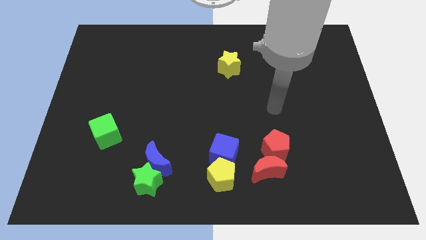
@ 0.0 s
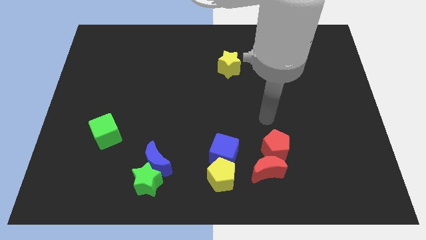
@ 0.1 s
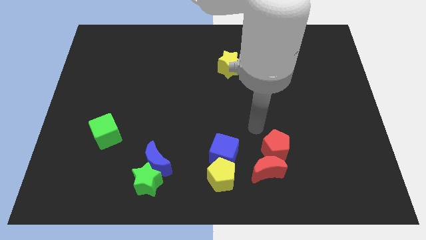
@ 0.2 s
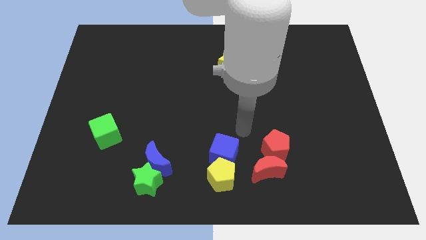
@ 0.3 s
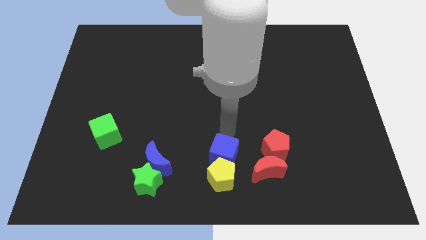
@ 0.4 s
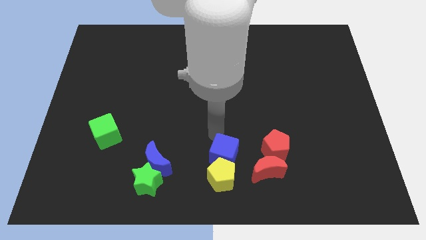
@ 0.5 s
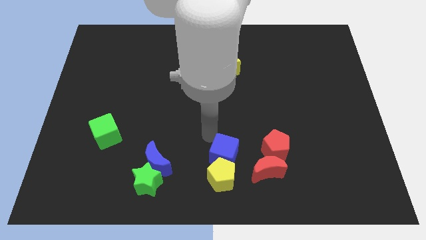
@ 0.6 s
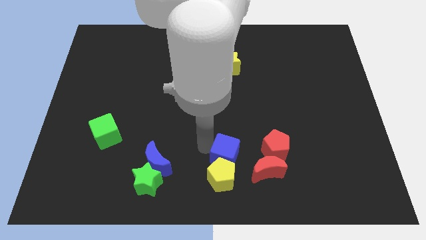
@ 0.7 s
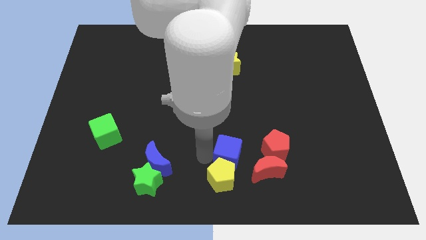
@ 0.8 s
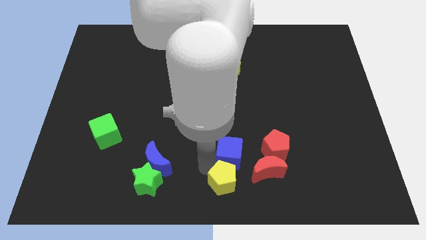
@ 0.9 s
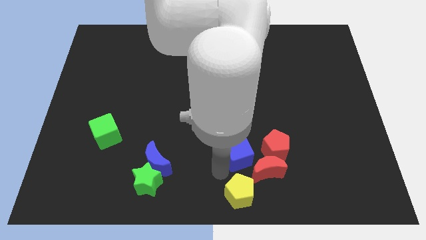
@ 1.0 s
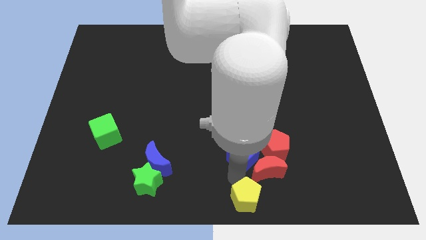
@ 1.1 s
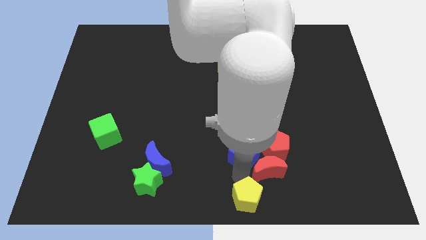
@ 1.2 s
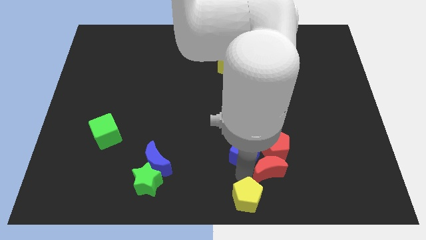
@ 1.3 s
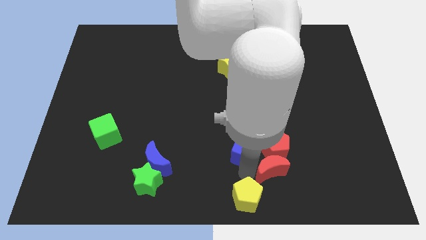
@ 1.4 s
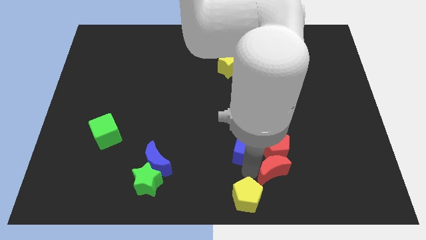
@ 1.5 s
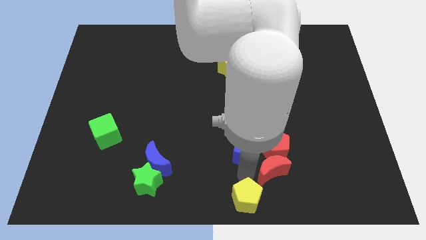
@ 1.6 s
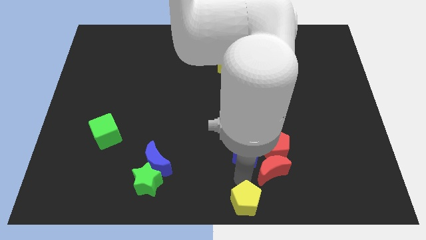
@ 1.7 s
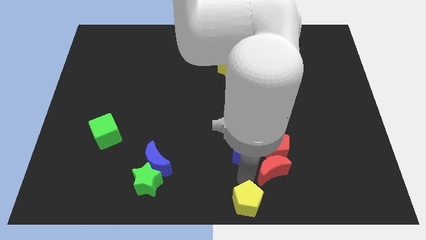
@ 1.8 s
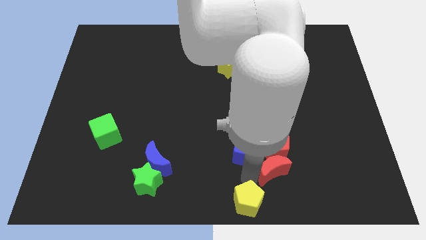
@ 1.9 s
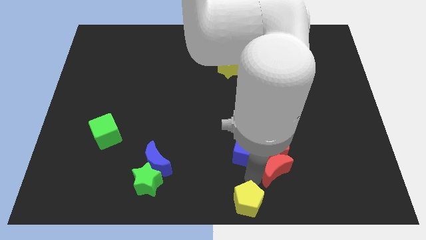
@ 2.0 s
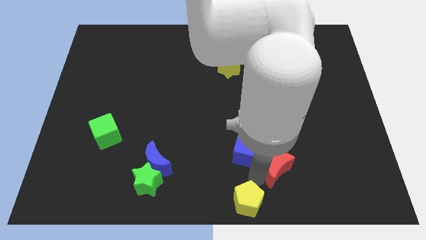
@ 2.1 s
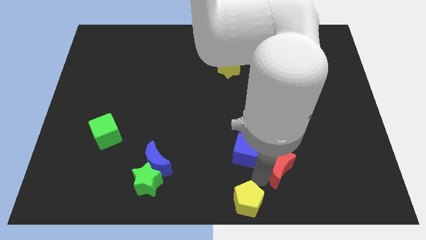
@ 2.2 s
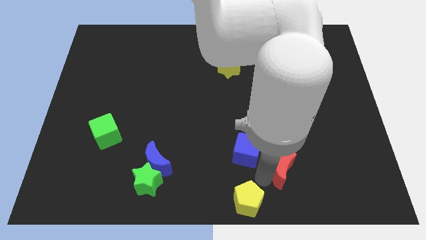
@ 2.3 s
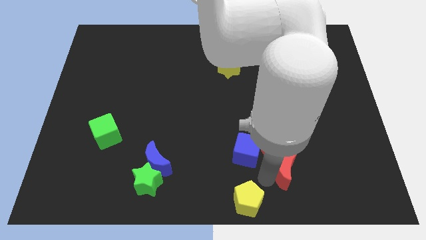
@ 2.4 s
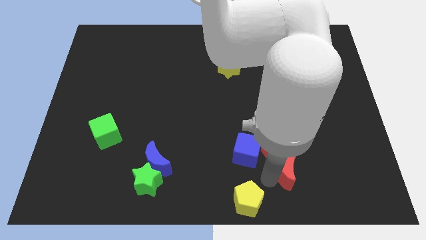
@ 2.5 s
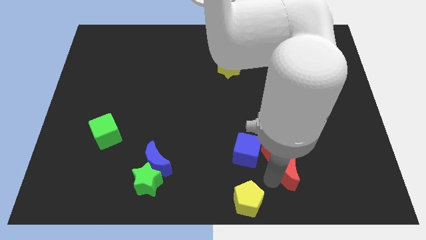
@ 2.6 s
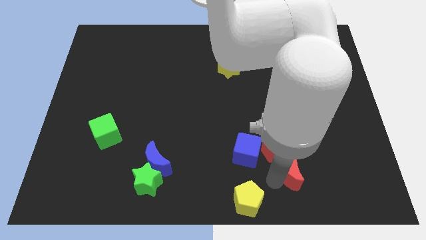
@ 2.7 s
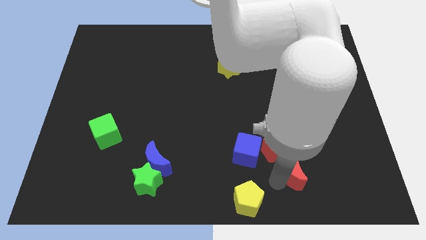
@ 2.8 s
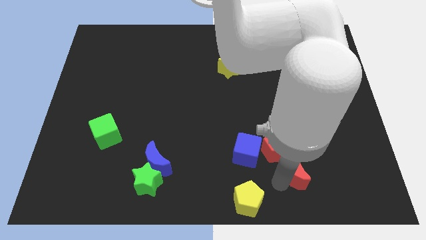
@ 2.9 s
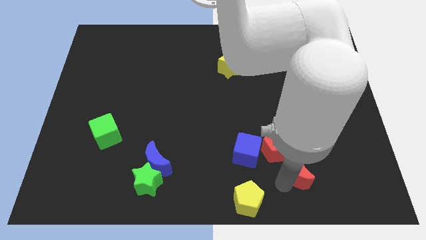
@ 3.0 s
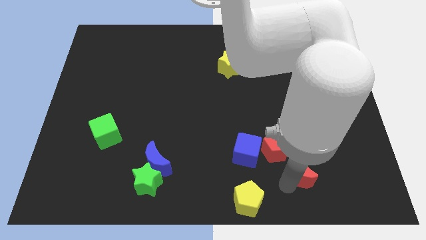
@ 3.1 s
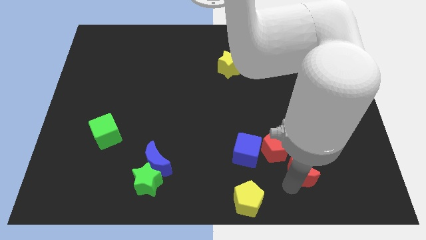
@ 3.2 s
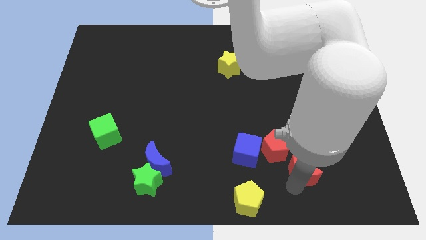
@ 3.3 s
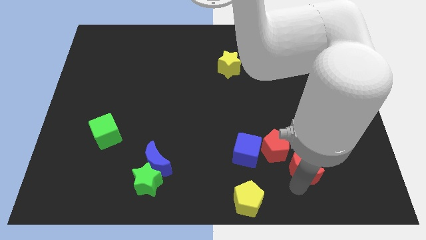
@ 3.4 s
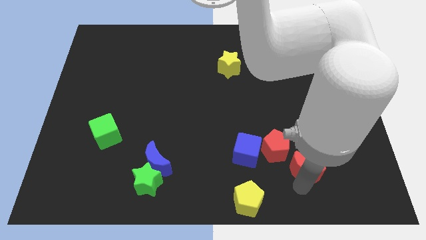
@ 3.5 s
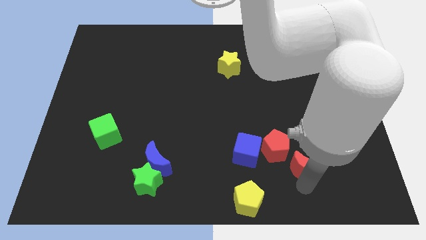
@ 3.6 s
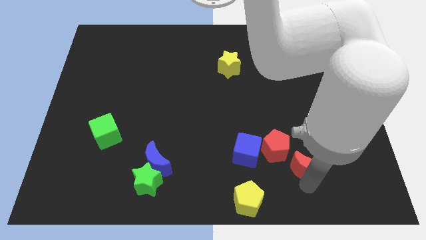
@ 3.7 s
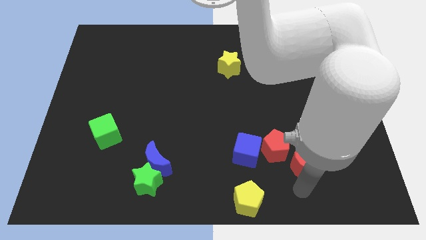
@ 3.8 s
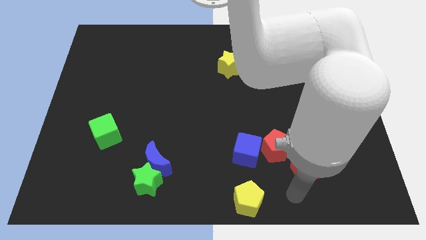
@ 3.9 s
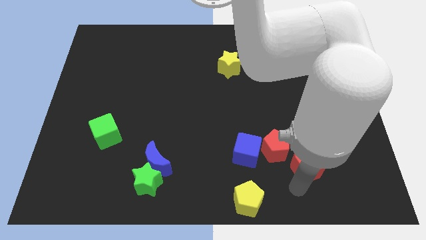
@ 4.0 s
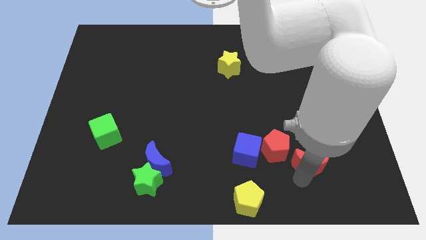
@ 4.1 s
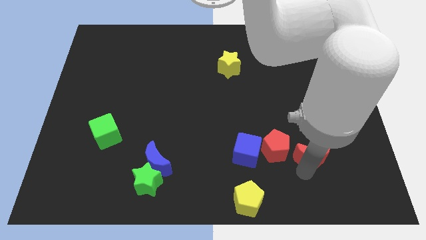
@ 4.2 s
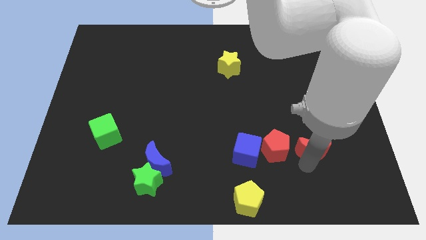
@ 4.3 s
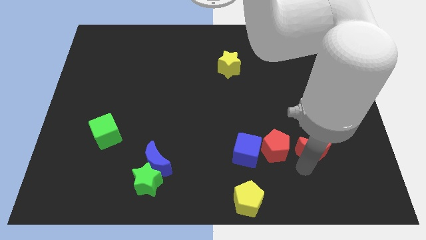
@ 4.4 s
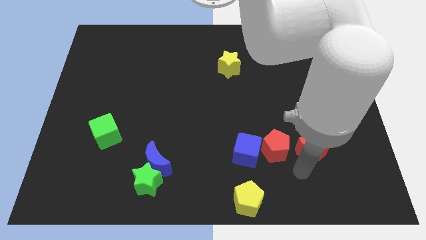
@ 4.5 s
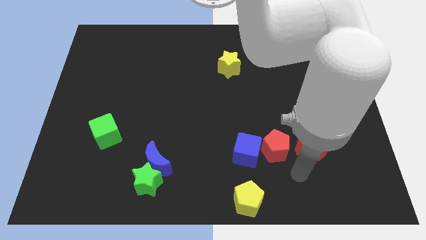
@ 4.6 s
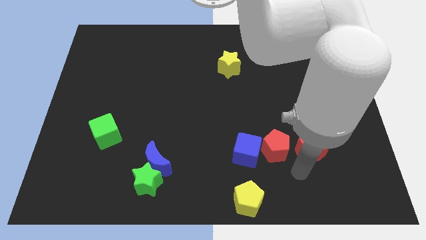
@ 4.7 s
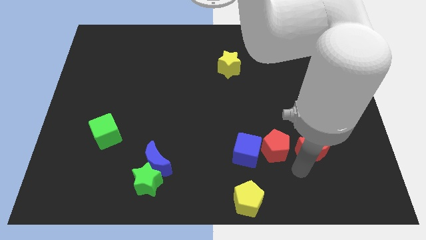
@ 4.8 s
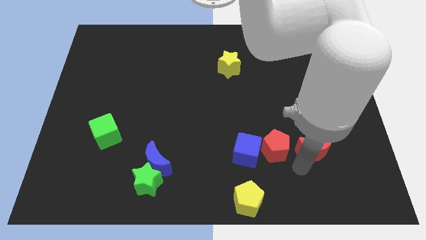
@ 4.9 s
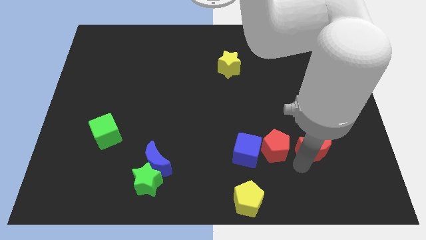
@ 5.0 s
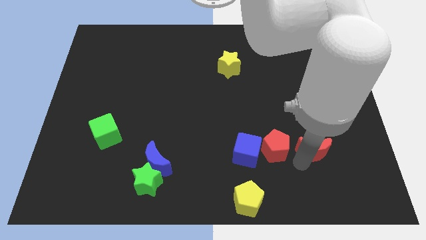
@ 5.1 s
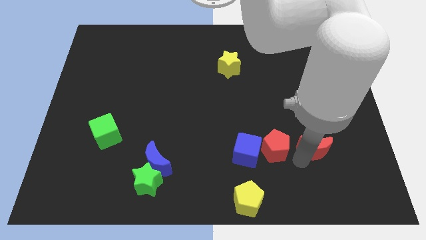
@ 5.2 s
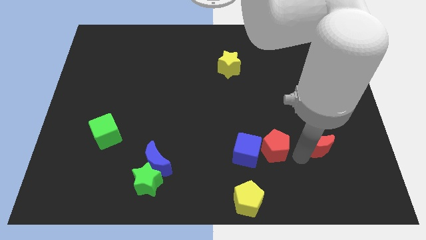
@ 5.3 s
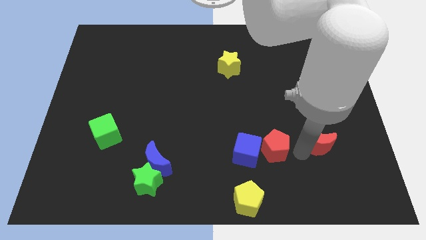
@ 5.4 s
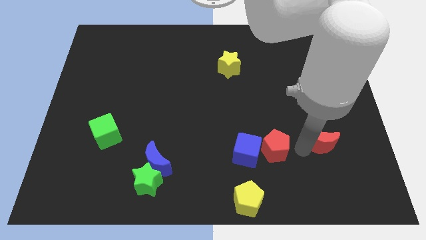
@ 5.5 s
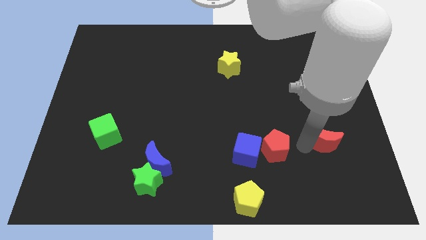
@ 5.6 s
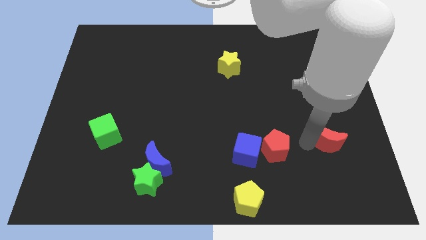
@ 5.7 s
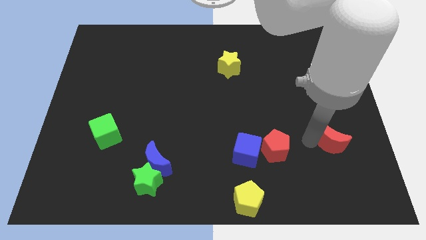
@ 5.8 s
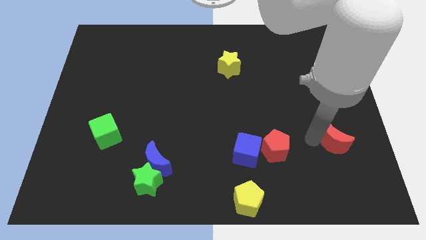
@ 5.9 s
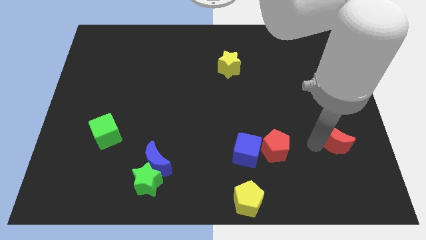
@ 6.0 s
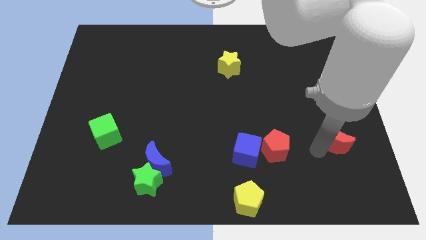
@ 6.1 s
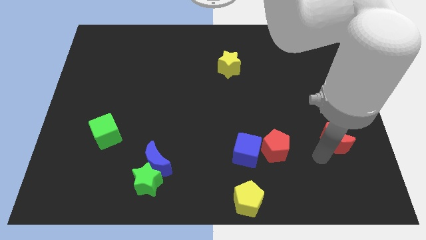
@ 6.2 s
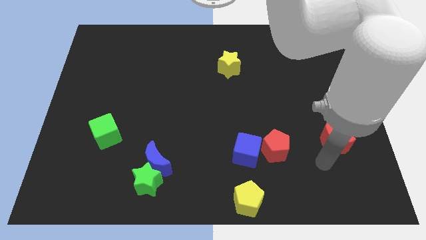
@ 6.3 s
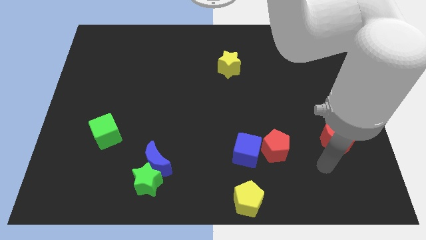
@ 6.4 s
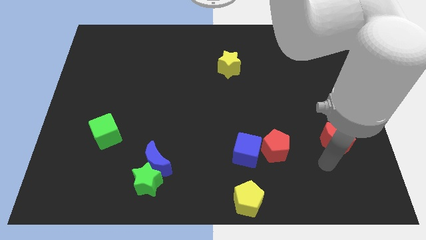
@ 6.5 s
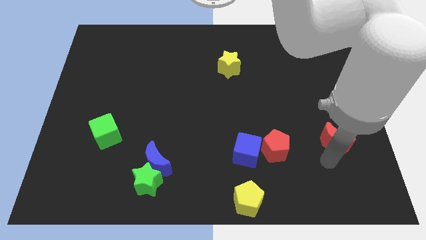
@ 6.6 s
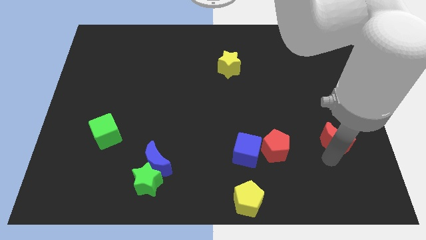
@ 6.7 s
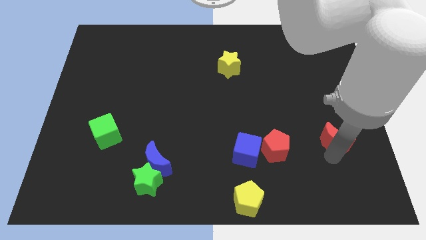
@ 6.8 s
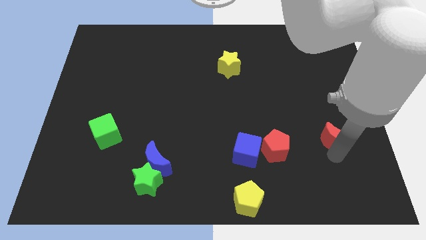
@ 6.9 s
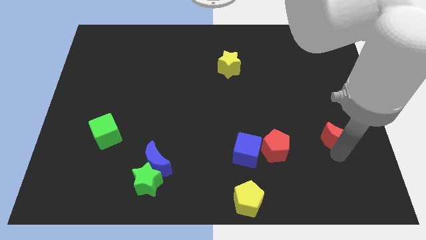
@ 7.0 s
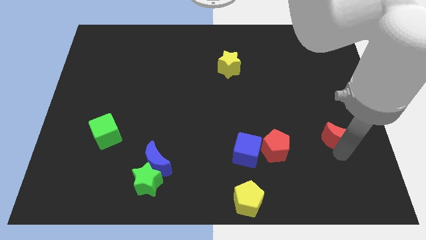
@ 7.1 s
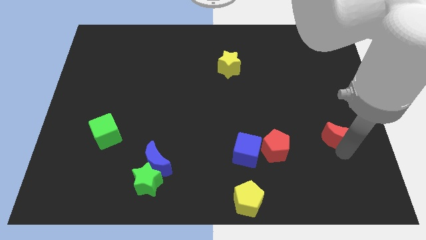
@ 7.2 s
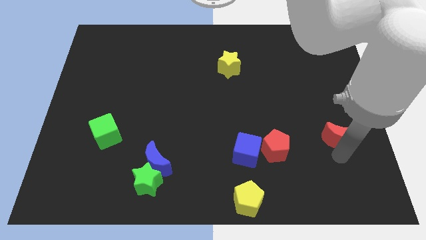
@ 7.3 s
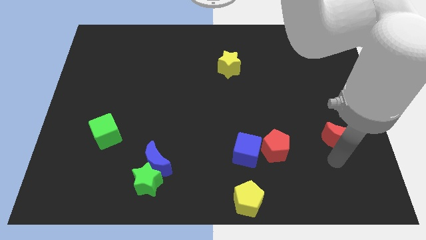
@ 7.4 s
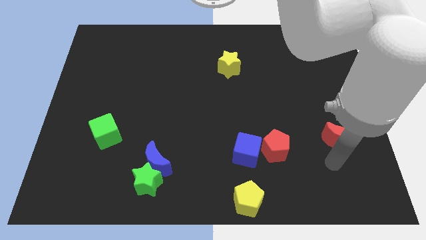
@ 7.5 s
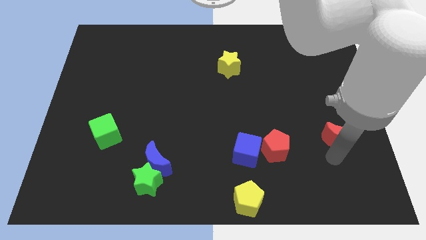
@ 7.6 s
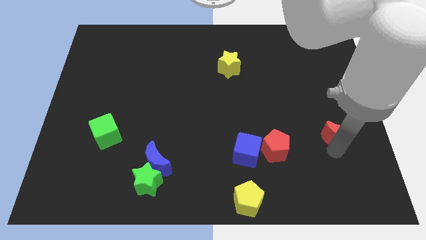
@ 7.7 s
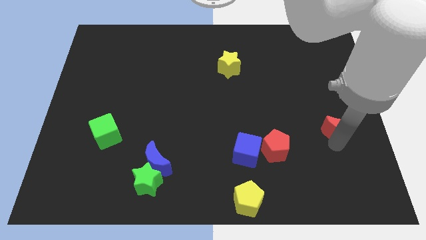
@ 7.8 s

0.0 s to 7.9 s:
slide the red moon to the center right
